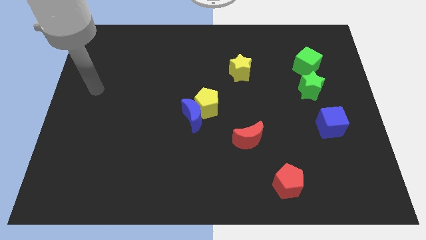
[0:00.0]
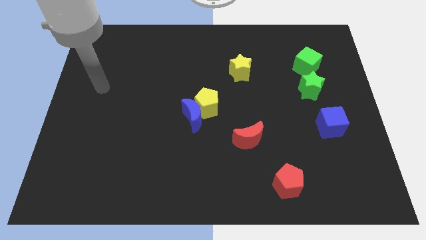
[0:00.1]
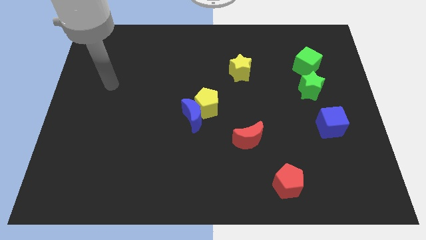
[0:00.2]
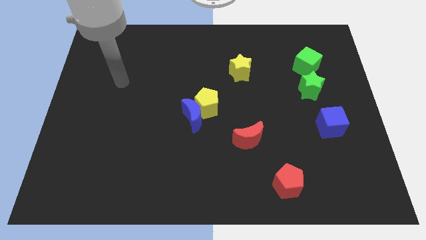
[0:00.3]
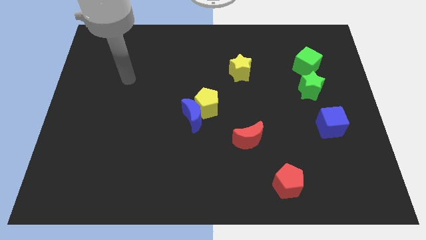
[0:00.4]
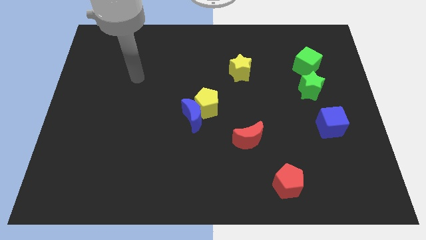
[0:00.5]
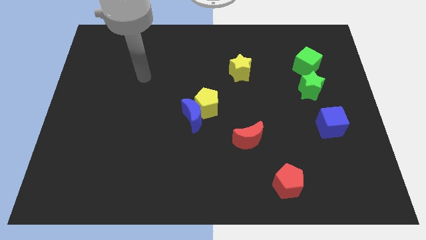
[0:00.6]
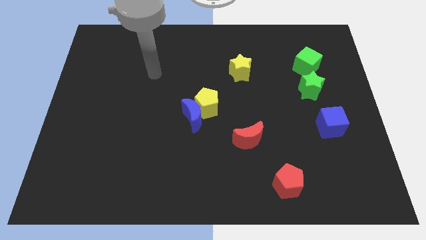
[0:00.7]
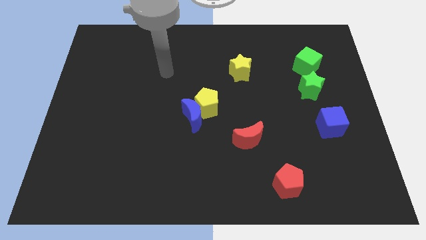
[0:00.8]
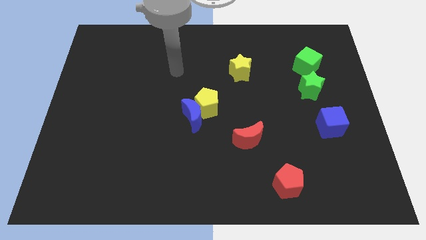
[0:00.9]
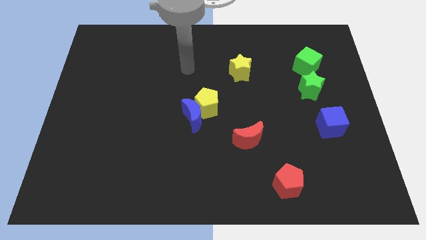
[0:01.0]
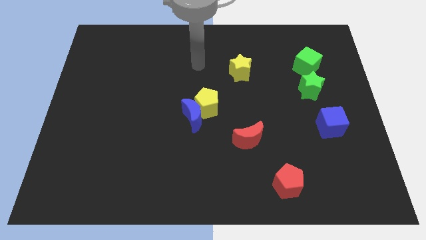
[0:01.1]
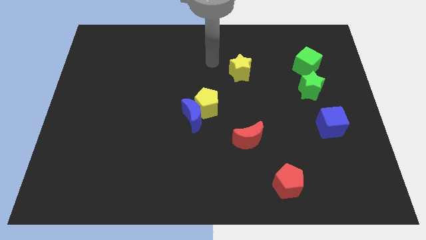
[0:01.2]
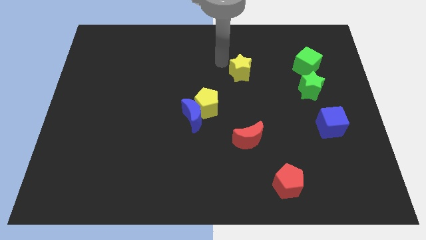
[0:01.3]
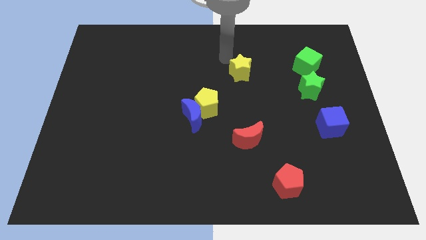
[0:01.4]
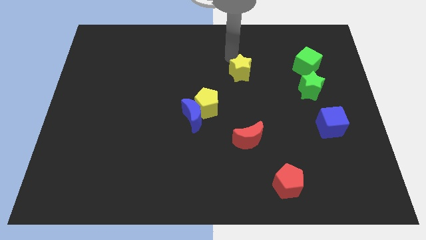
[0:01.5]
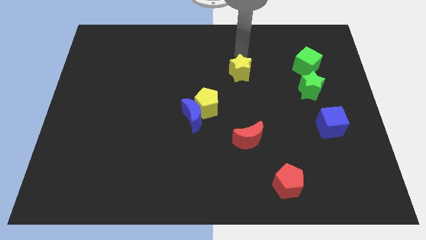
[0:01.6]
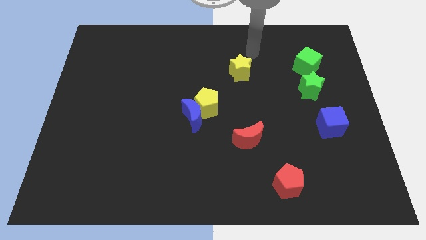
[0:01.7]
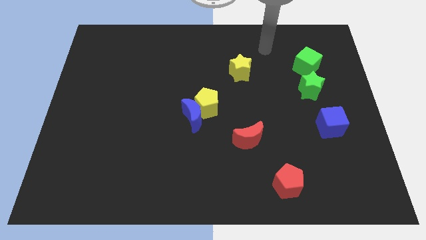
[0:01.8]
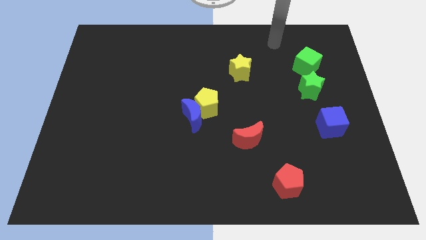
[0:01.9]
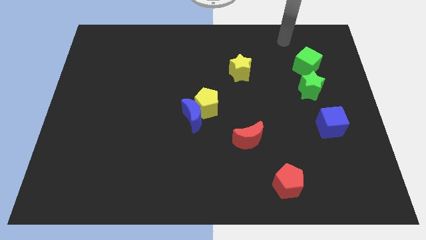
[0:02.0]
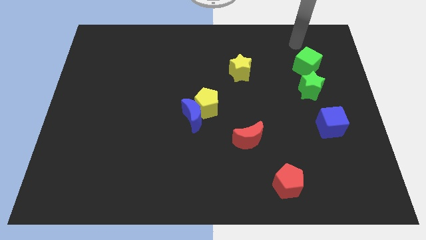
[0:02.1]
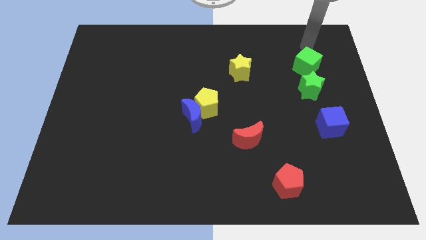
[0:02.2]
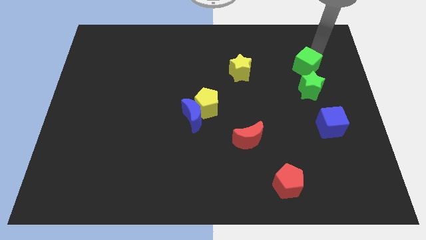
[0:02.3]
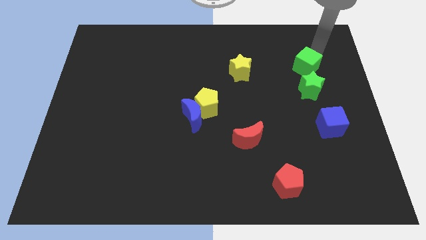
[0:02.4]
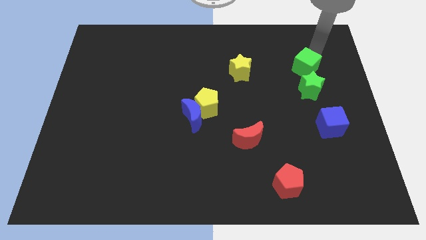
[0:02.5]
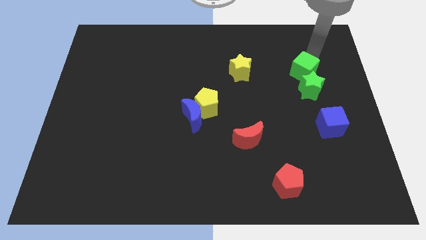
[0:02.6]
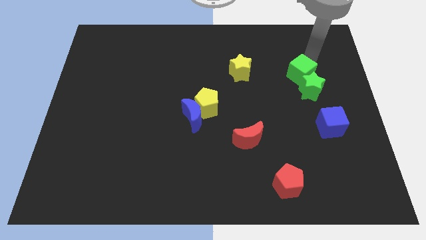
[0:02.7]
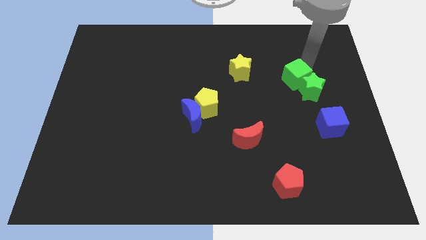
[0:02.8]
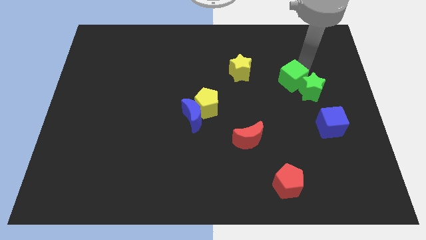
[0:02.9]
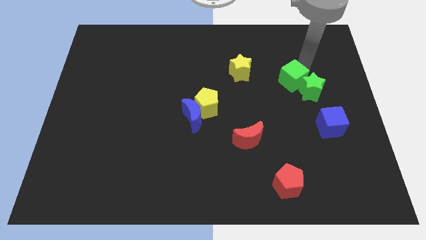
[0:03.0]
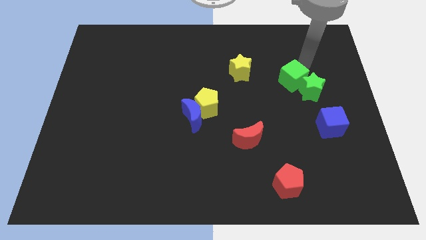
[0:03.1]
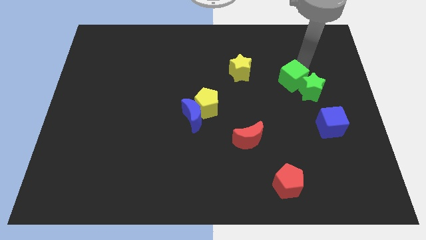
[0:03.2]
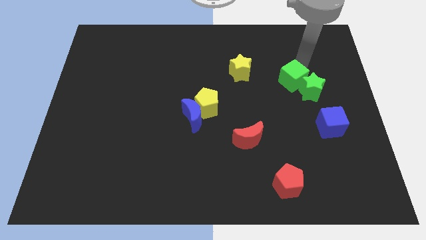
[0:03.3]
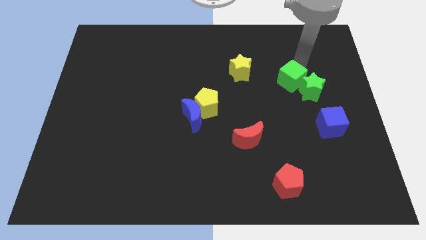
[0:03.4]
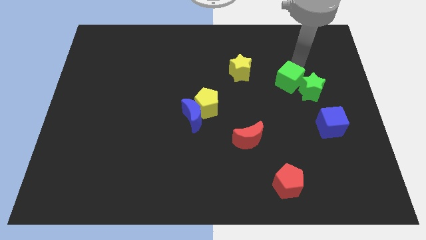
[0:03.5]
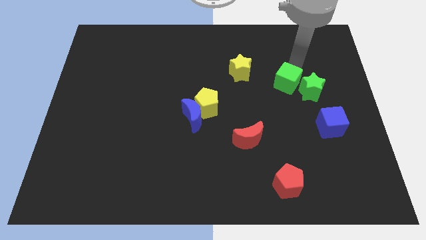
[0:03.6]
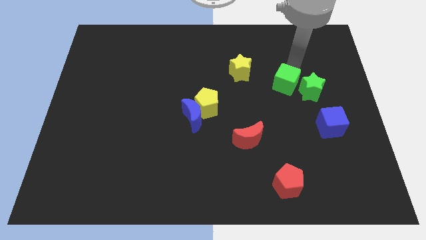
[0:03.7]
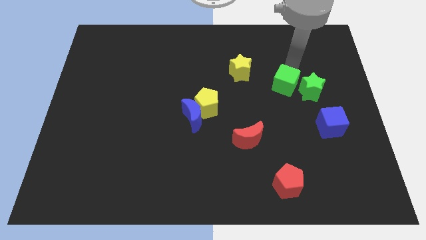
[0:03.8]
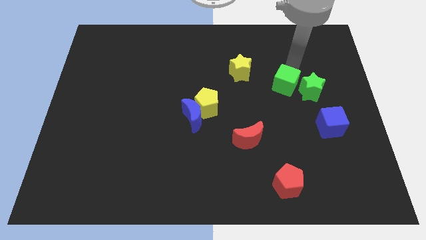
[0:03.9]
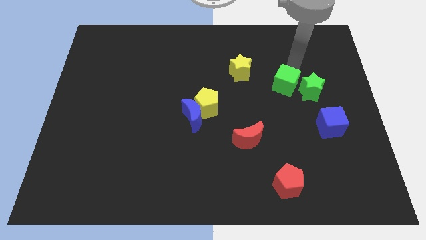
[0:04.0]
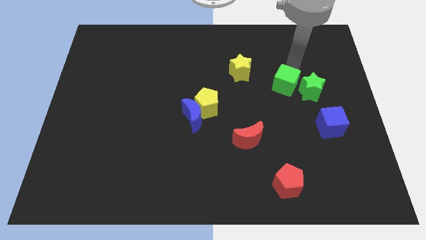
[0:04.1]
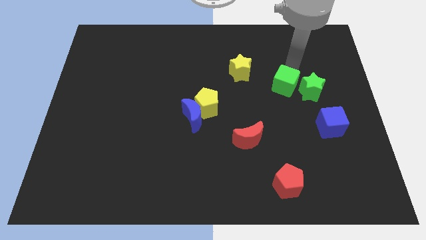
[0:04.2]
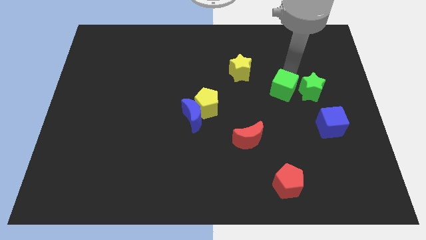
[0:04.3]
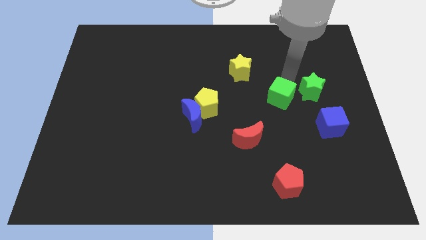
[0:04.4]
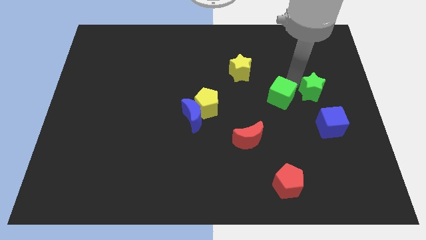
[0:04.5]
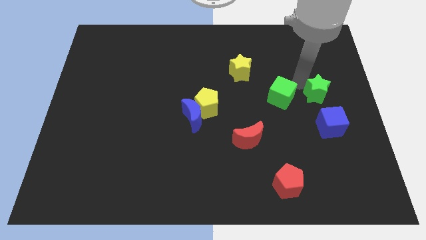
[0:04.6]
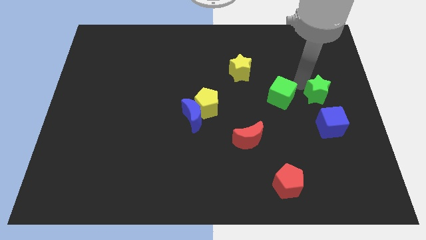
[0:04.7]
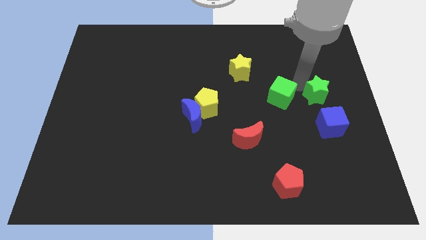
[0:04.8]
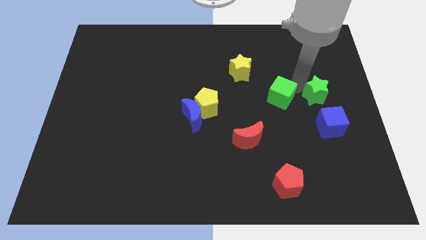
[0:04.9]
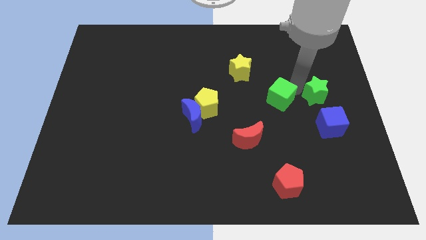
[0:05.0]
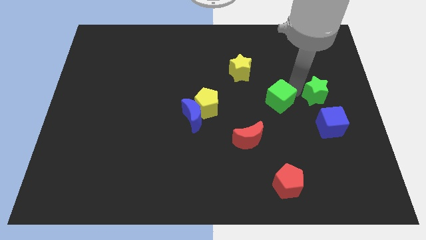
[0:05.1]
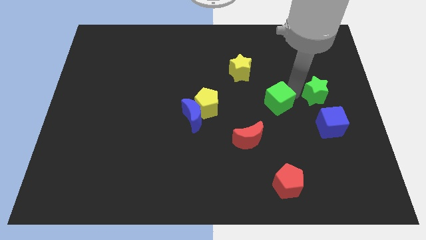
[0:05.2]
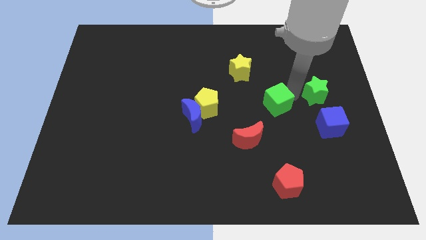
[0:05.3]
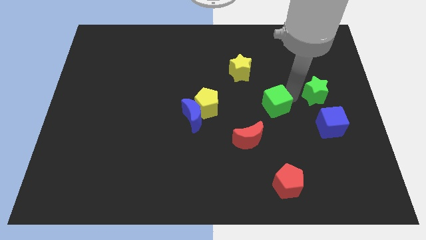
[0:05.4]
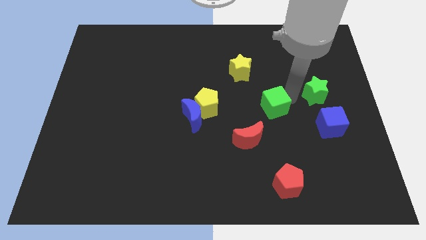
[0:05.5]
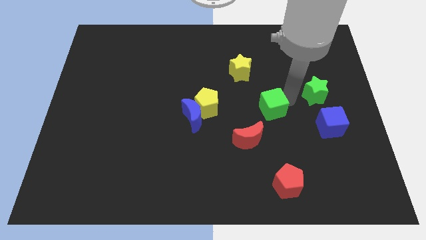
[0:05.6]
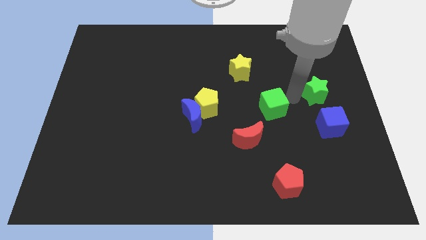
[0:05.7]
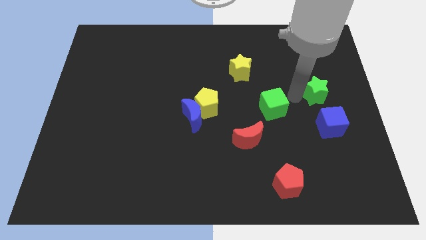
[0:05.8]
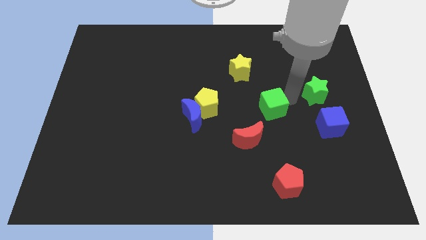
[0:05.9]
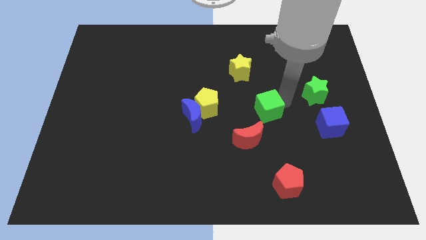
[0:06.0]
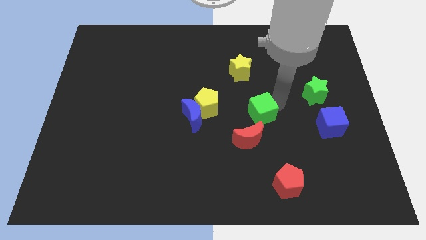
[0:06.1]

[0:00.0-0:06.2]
push the green cube down and left diagonally

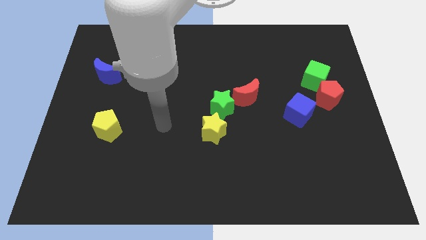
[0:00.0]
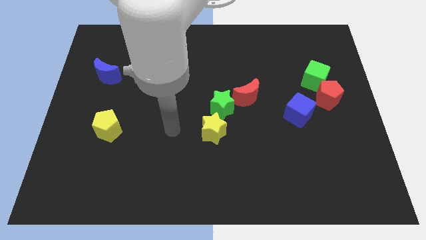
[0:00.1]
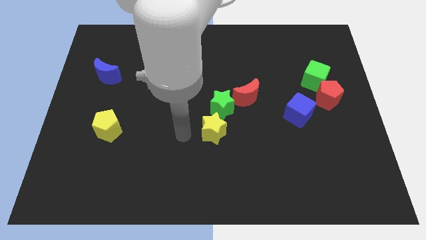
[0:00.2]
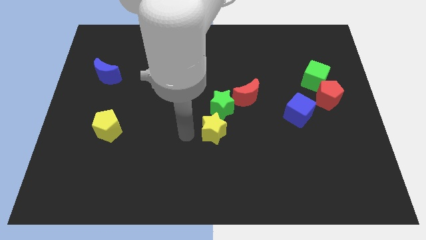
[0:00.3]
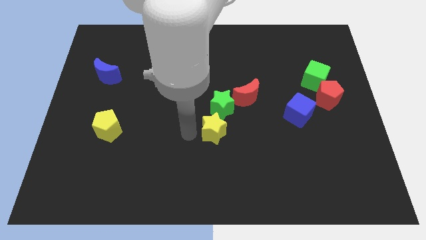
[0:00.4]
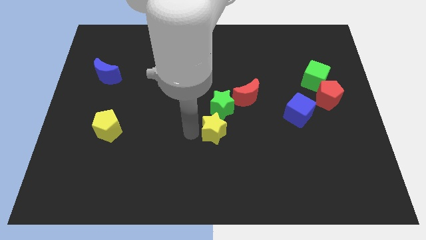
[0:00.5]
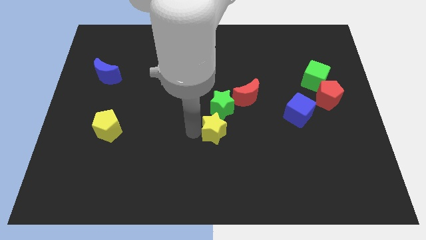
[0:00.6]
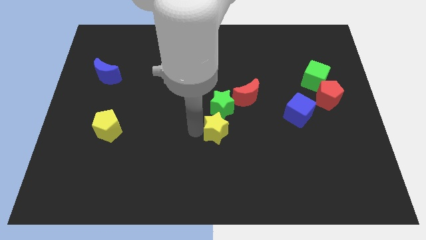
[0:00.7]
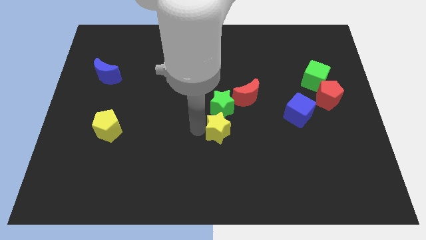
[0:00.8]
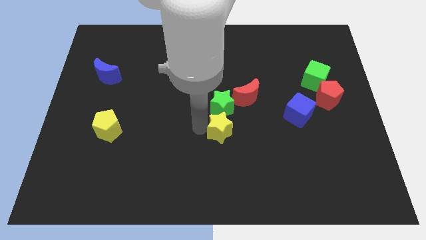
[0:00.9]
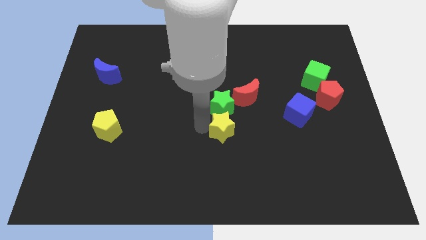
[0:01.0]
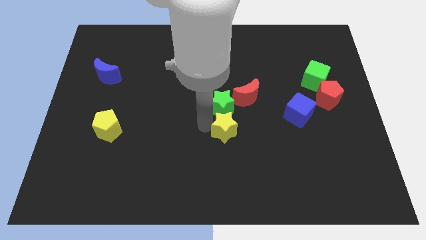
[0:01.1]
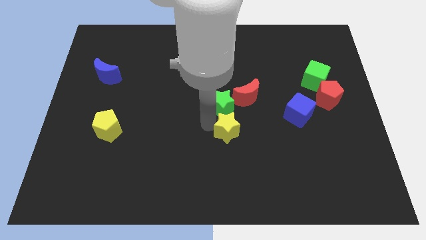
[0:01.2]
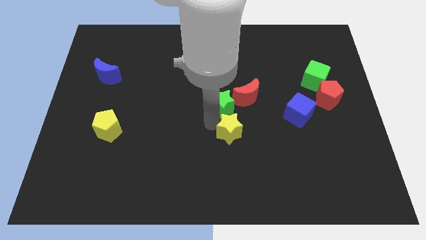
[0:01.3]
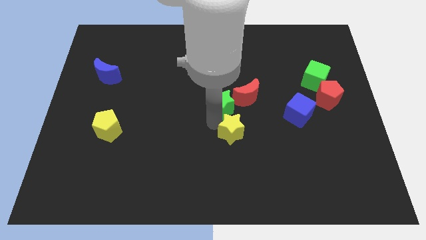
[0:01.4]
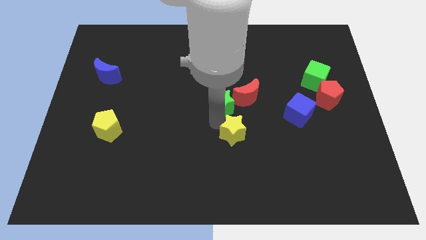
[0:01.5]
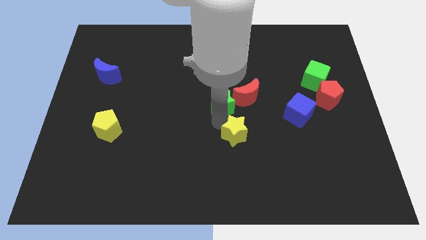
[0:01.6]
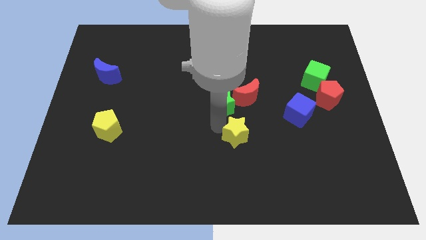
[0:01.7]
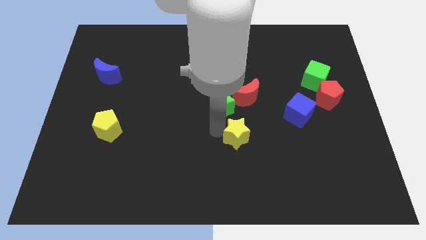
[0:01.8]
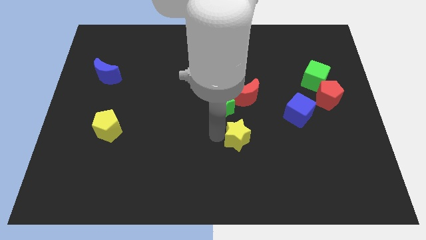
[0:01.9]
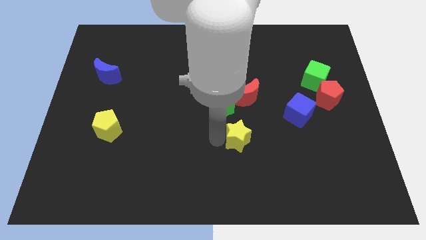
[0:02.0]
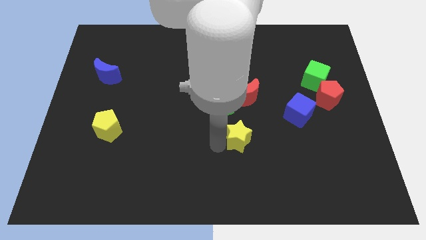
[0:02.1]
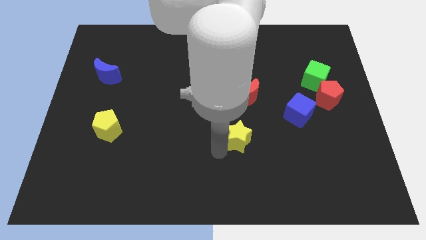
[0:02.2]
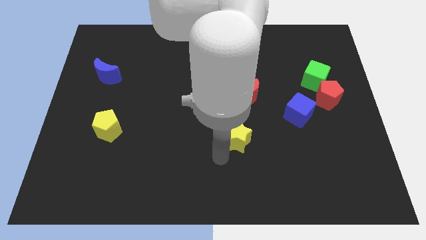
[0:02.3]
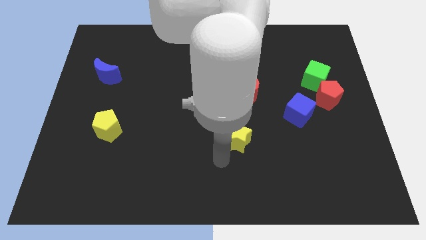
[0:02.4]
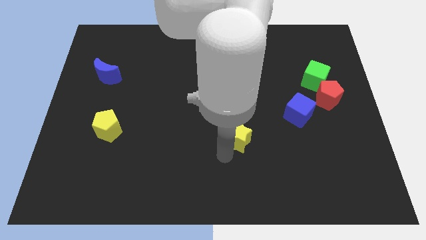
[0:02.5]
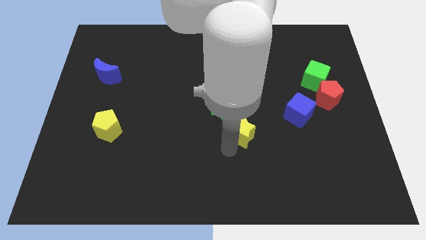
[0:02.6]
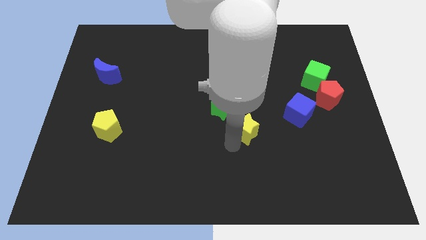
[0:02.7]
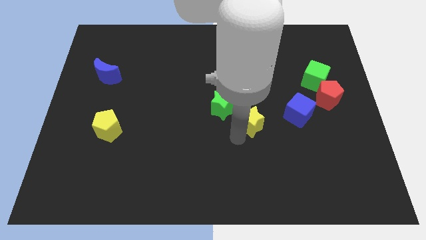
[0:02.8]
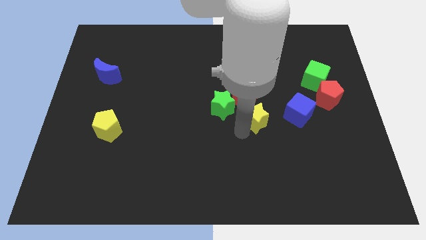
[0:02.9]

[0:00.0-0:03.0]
slightly slide the yellow star diagonally upwards and to the right
